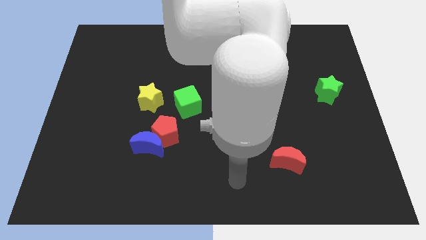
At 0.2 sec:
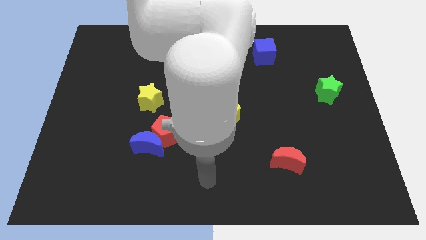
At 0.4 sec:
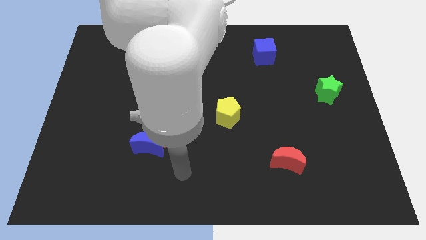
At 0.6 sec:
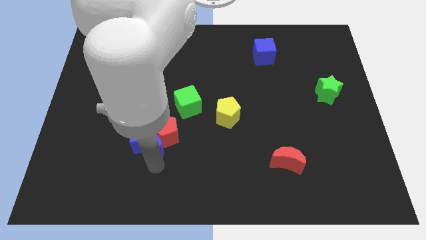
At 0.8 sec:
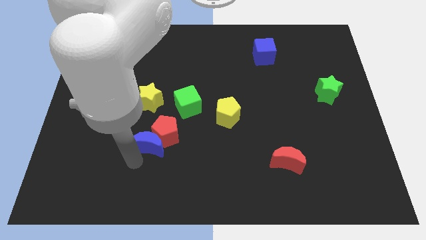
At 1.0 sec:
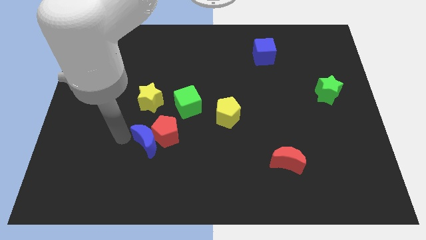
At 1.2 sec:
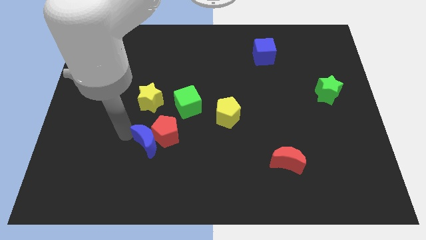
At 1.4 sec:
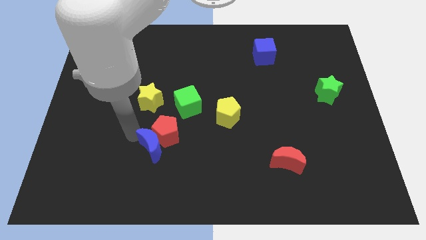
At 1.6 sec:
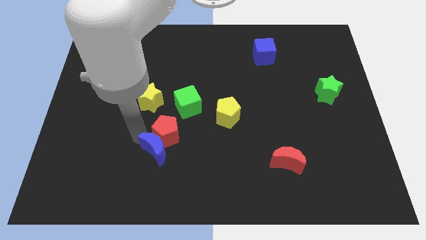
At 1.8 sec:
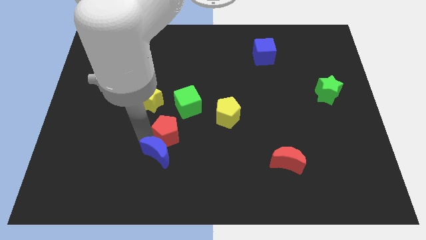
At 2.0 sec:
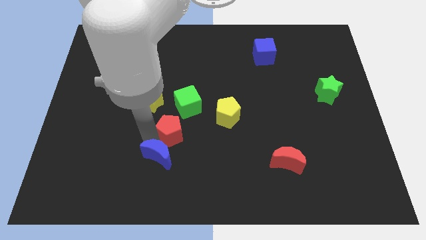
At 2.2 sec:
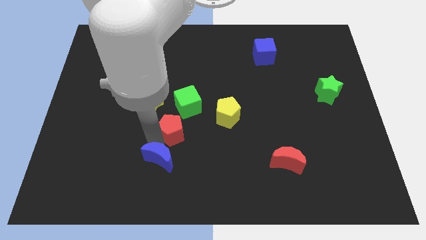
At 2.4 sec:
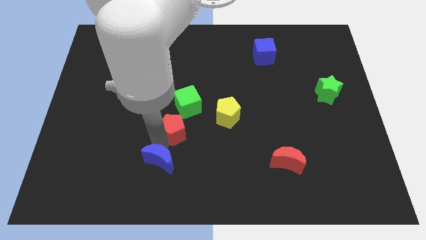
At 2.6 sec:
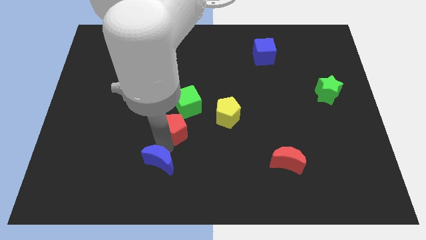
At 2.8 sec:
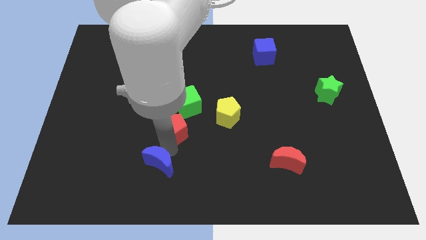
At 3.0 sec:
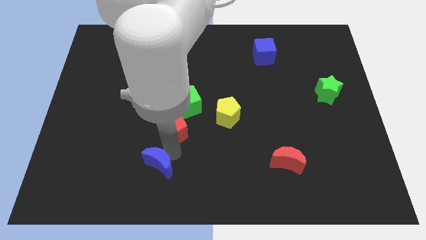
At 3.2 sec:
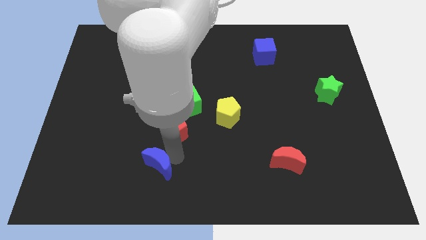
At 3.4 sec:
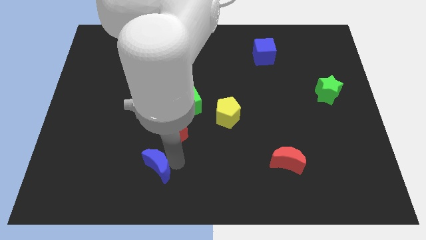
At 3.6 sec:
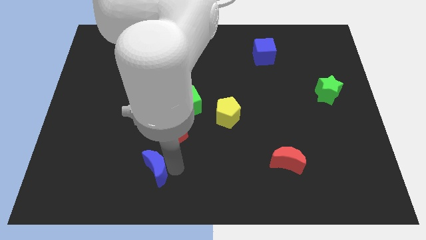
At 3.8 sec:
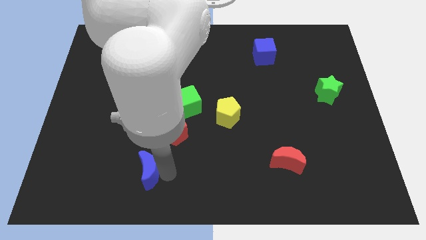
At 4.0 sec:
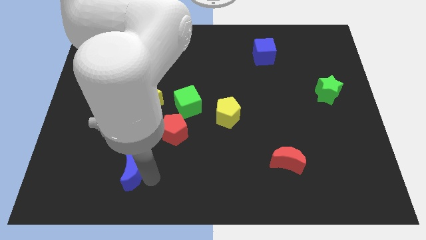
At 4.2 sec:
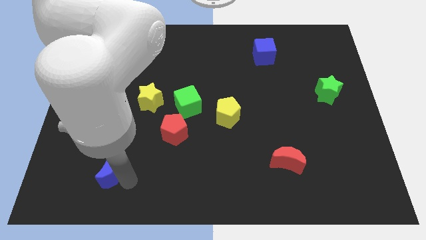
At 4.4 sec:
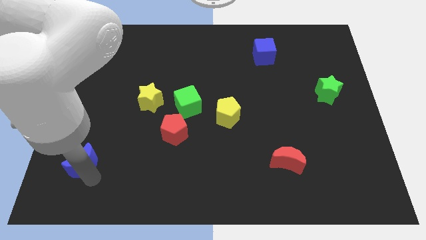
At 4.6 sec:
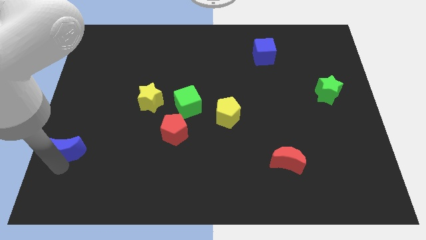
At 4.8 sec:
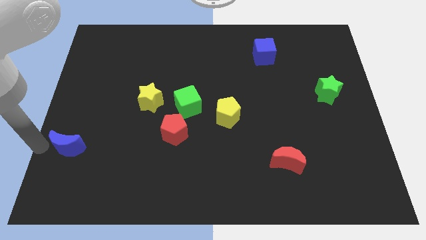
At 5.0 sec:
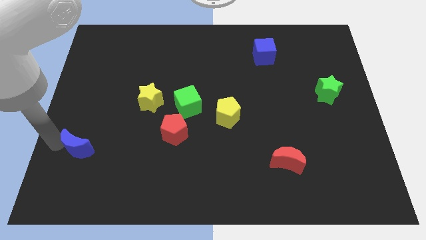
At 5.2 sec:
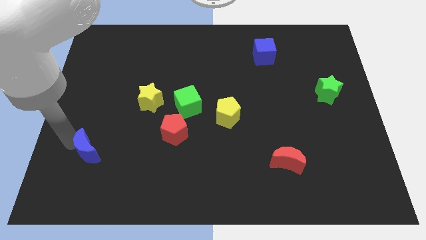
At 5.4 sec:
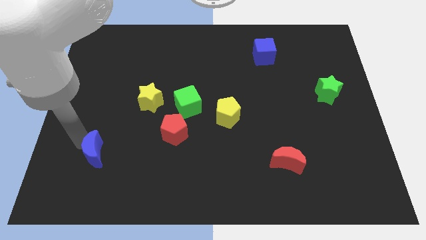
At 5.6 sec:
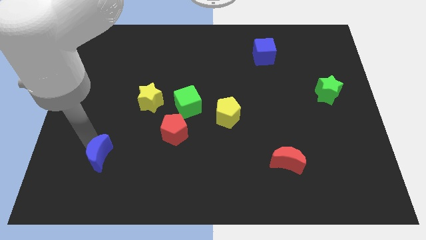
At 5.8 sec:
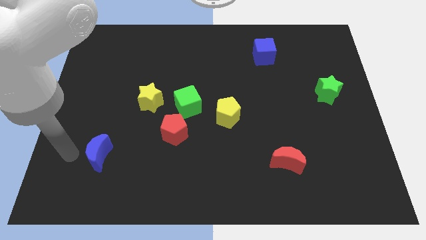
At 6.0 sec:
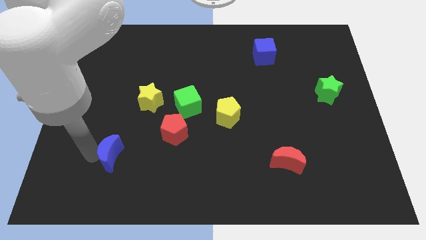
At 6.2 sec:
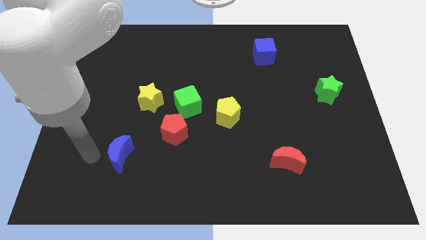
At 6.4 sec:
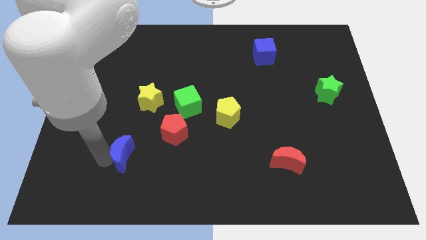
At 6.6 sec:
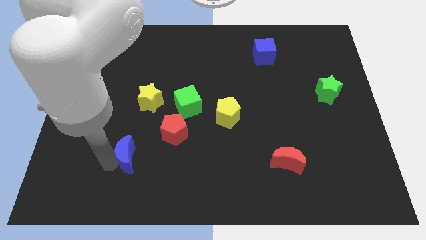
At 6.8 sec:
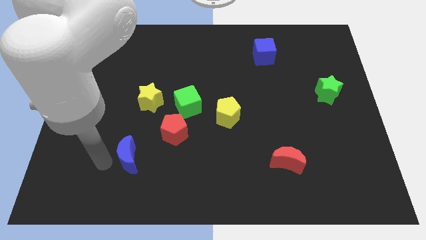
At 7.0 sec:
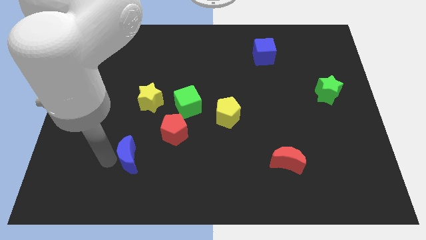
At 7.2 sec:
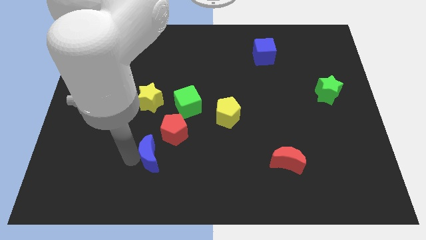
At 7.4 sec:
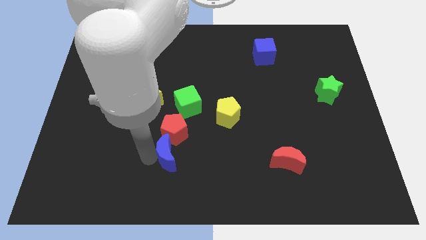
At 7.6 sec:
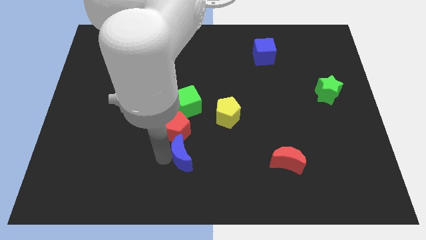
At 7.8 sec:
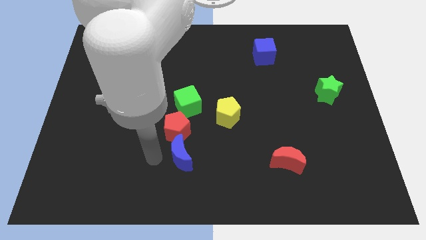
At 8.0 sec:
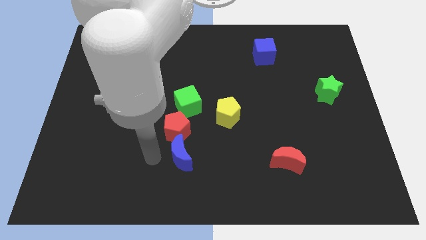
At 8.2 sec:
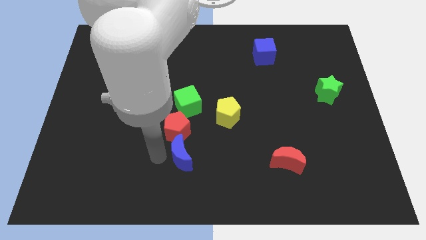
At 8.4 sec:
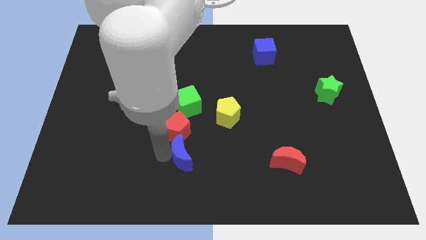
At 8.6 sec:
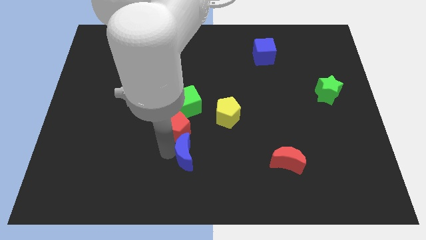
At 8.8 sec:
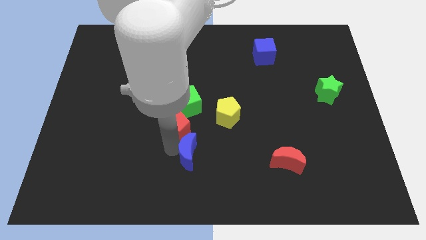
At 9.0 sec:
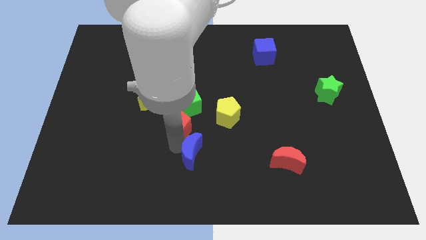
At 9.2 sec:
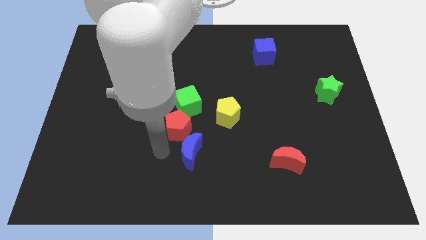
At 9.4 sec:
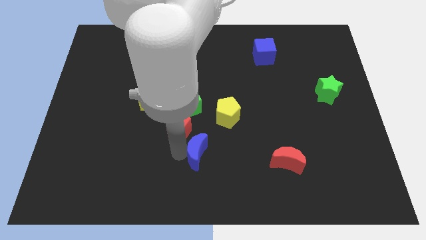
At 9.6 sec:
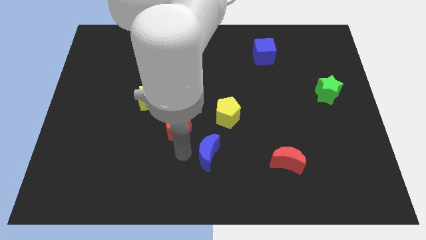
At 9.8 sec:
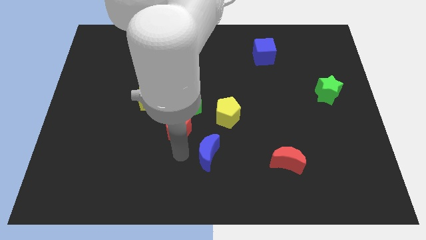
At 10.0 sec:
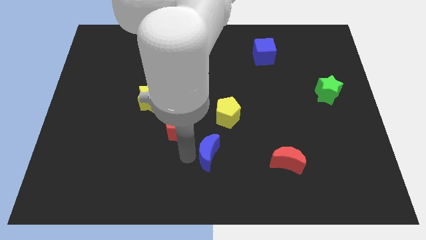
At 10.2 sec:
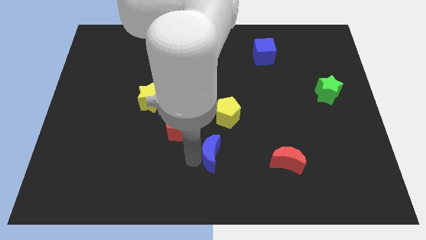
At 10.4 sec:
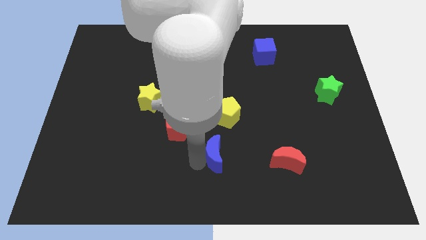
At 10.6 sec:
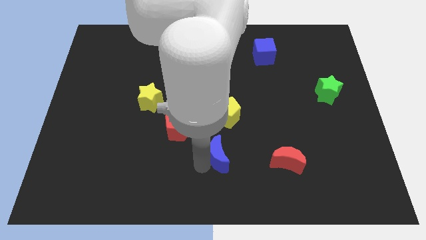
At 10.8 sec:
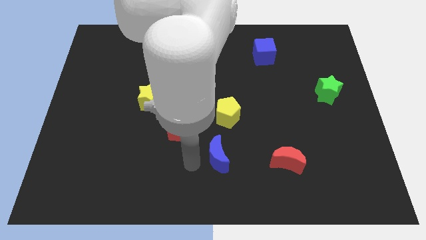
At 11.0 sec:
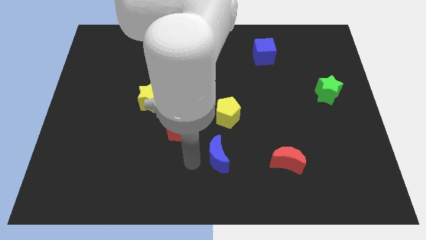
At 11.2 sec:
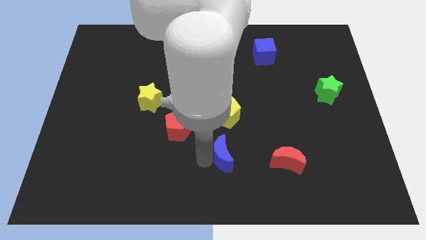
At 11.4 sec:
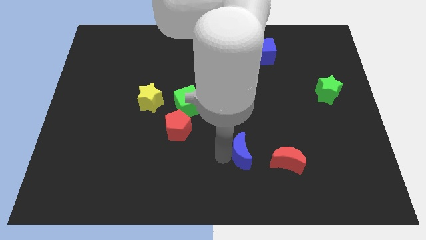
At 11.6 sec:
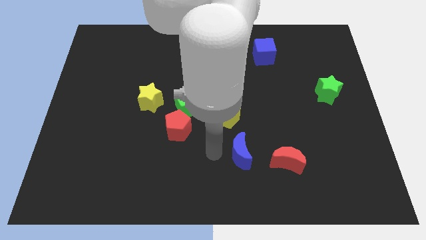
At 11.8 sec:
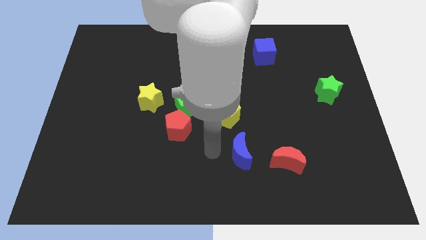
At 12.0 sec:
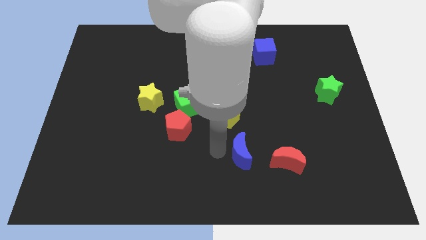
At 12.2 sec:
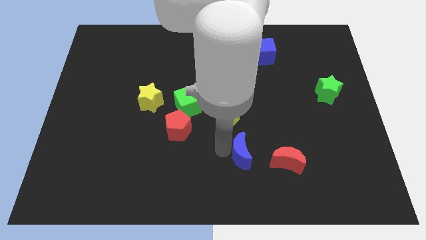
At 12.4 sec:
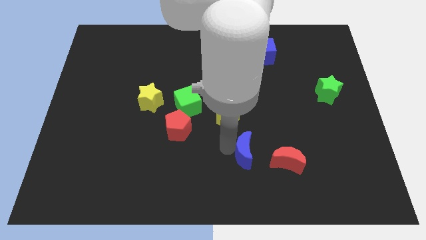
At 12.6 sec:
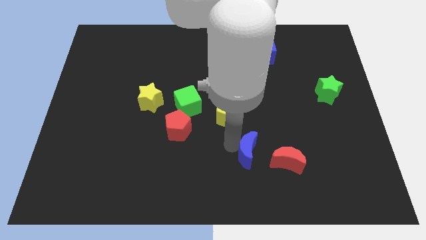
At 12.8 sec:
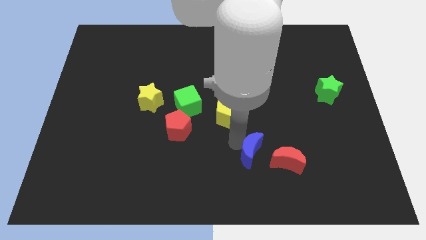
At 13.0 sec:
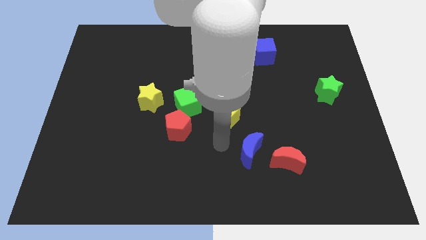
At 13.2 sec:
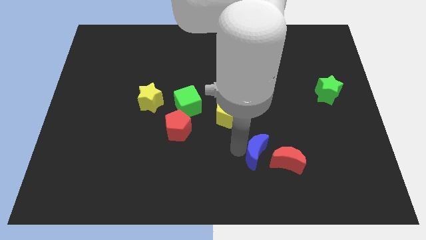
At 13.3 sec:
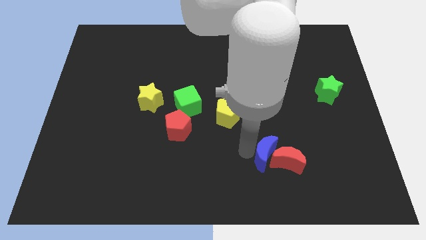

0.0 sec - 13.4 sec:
put the blue moon next to the red moon
